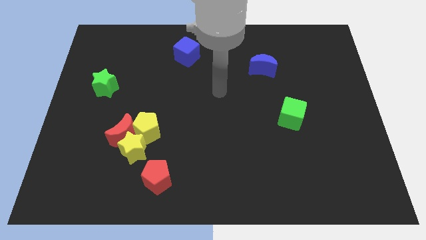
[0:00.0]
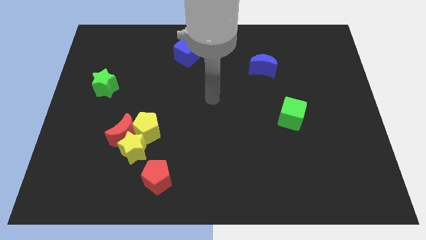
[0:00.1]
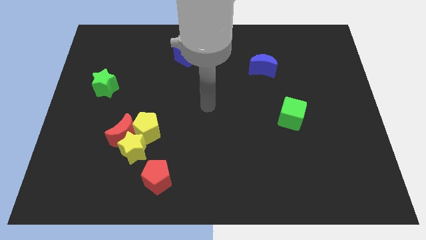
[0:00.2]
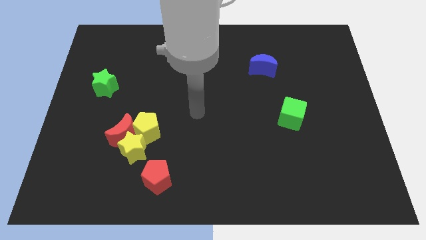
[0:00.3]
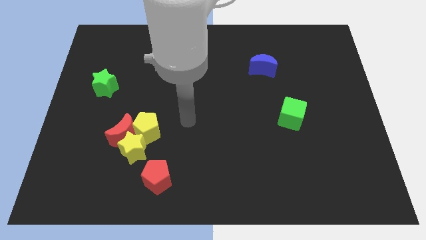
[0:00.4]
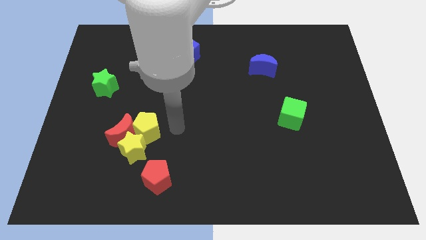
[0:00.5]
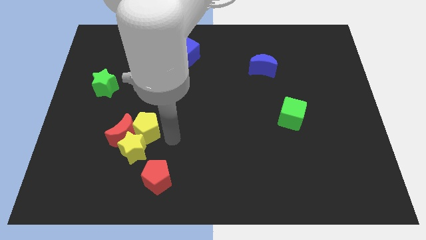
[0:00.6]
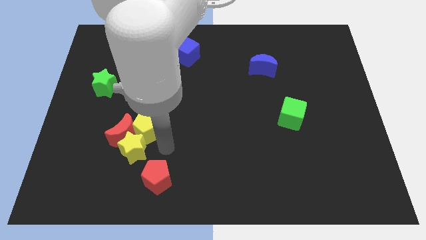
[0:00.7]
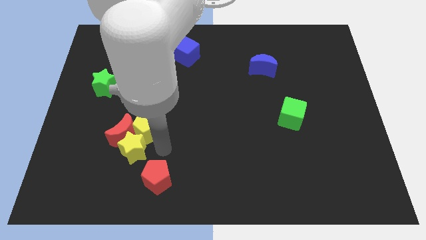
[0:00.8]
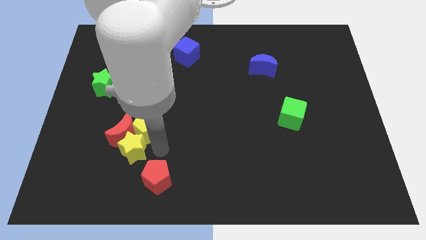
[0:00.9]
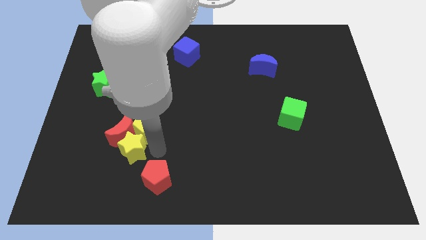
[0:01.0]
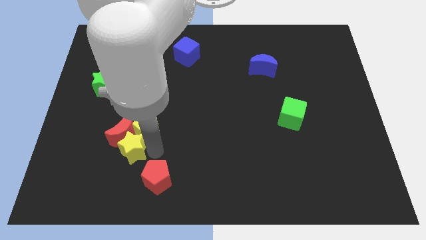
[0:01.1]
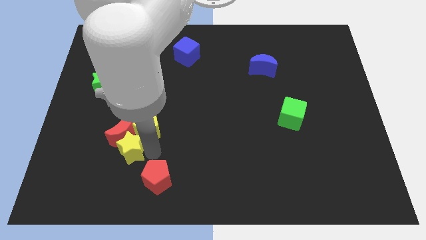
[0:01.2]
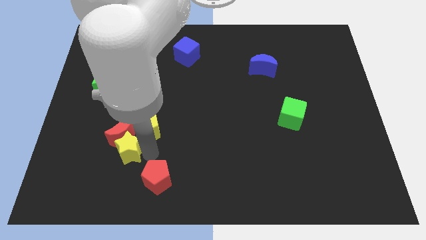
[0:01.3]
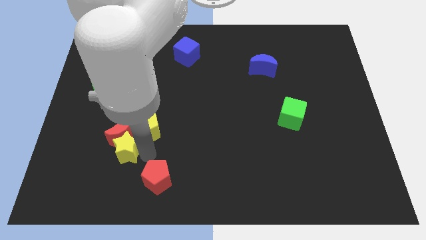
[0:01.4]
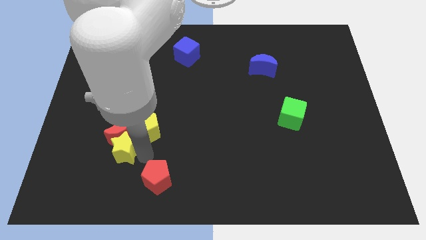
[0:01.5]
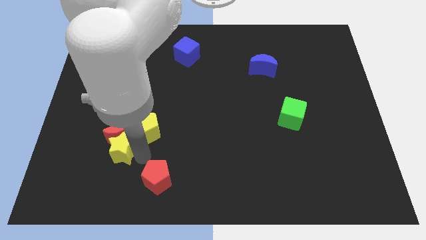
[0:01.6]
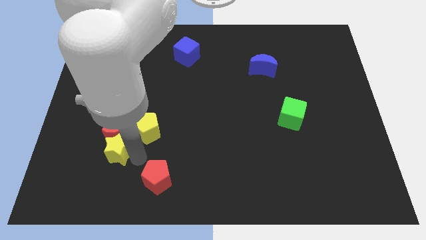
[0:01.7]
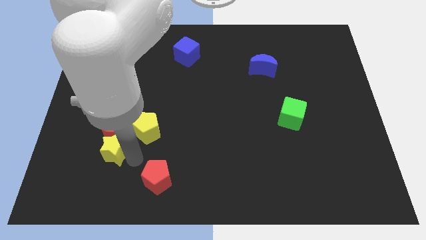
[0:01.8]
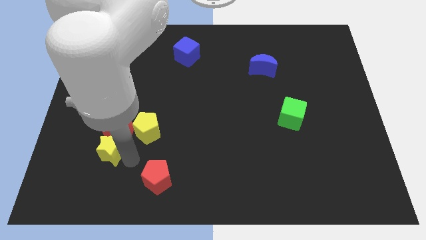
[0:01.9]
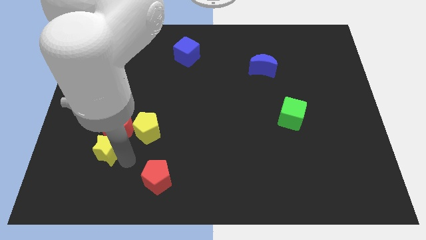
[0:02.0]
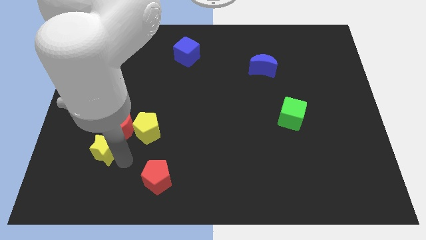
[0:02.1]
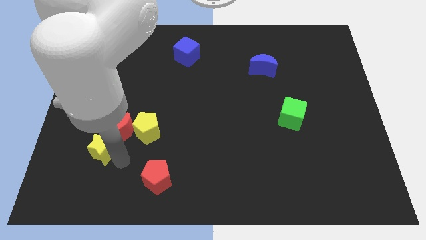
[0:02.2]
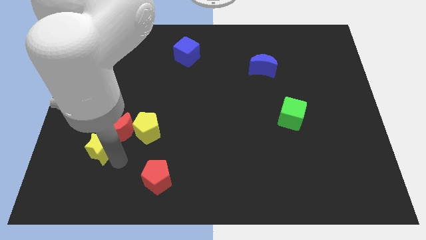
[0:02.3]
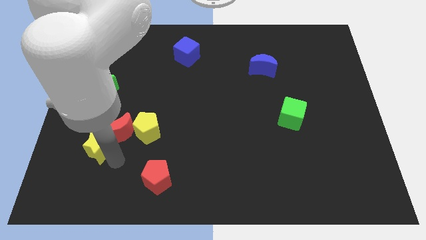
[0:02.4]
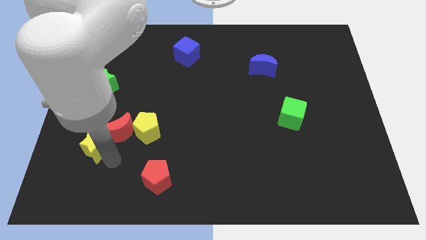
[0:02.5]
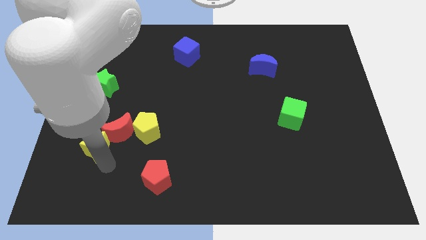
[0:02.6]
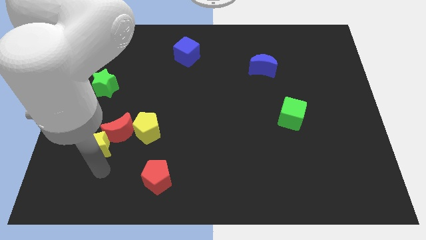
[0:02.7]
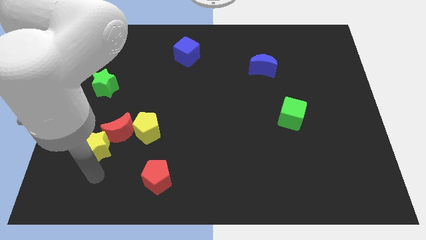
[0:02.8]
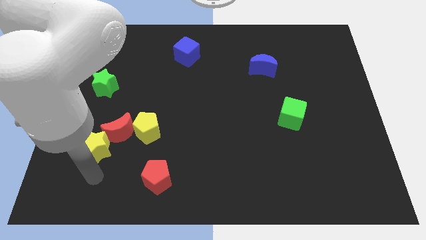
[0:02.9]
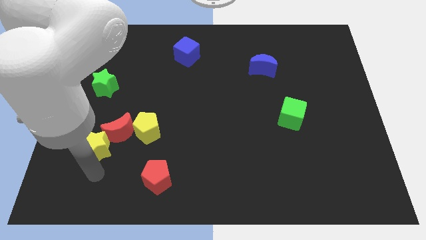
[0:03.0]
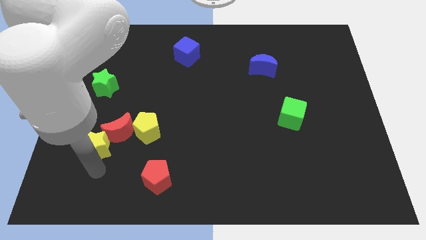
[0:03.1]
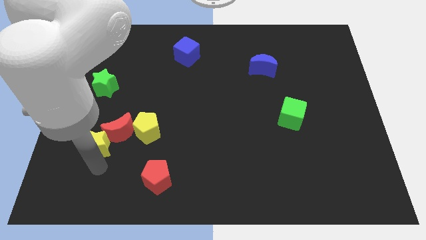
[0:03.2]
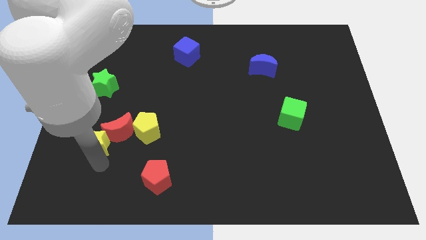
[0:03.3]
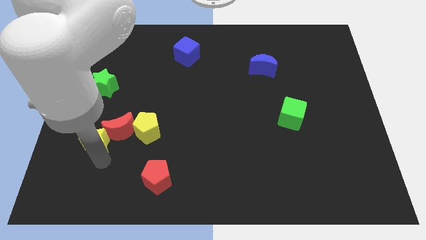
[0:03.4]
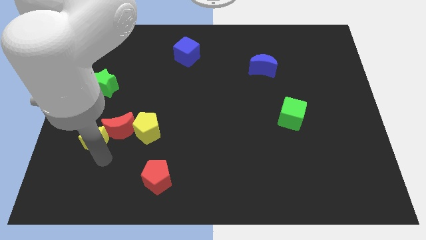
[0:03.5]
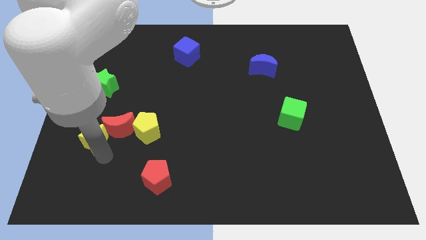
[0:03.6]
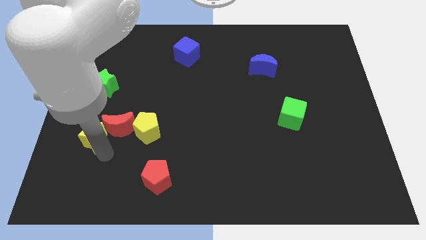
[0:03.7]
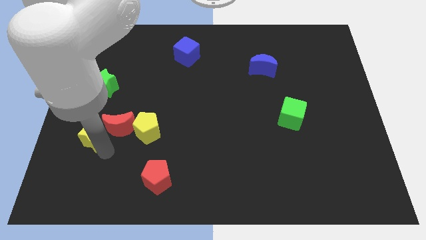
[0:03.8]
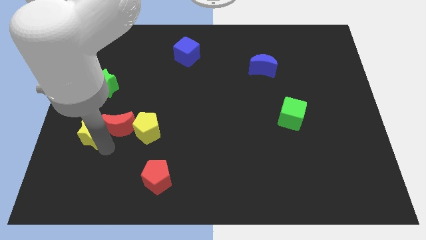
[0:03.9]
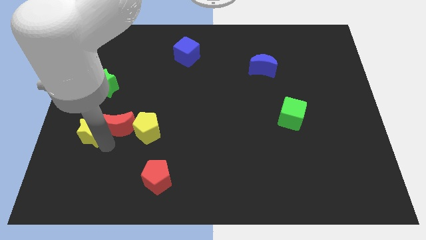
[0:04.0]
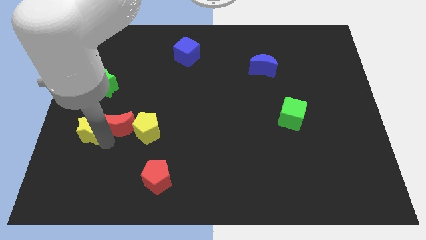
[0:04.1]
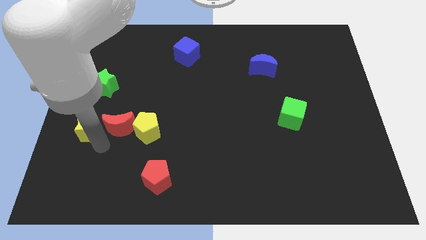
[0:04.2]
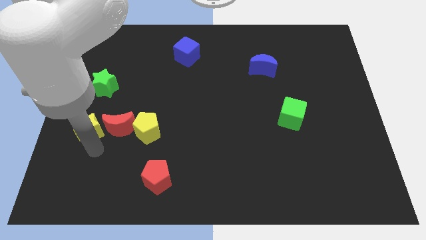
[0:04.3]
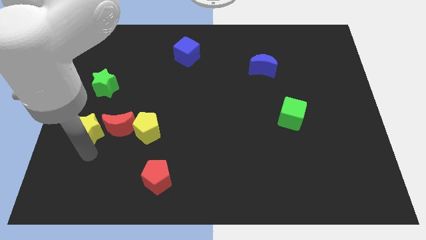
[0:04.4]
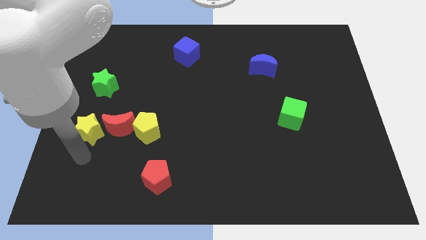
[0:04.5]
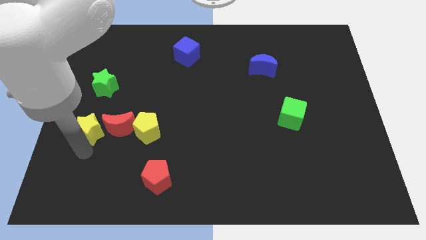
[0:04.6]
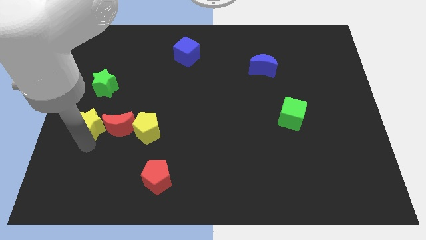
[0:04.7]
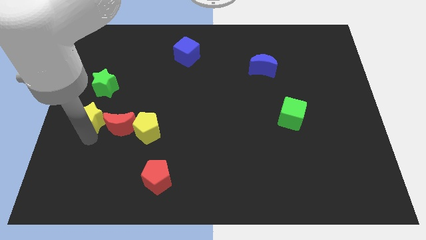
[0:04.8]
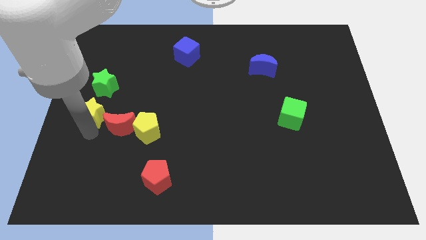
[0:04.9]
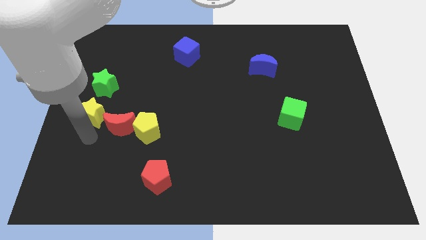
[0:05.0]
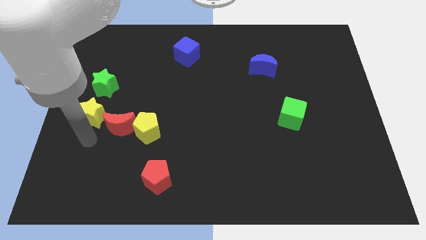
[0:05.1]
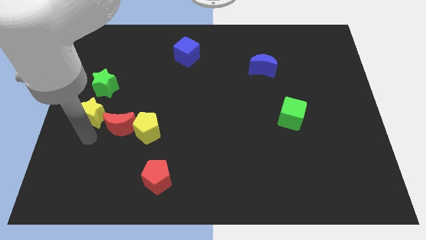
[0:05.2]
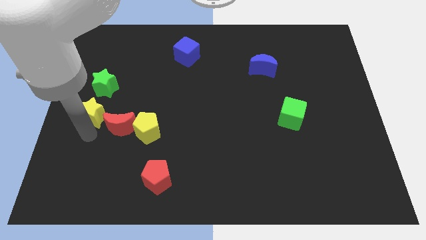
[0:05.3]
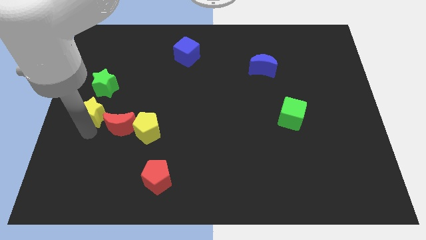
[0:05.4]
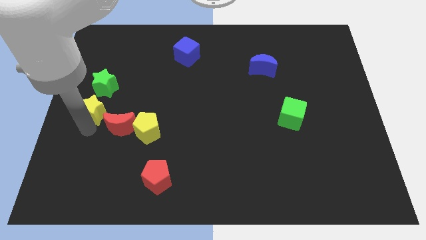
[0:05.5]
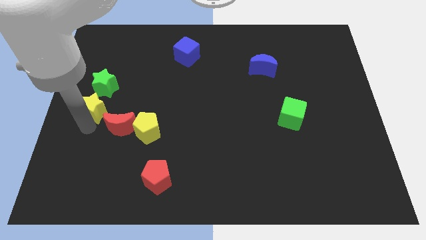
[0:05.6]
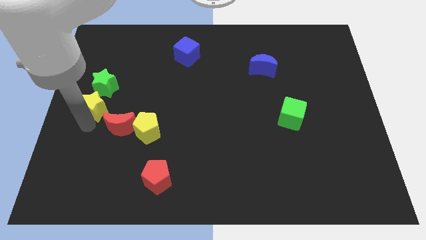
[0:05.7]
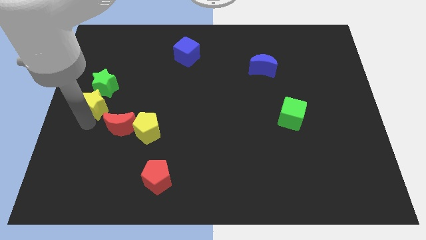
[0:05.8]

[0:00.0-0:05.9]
slide the yellow star next to the green star

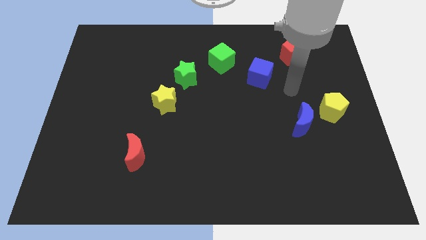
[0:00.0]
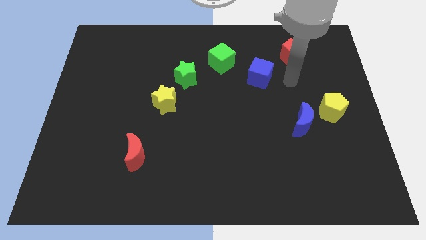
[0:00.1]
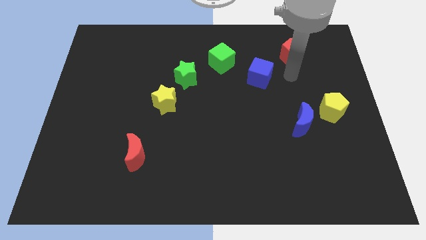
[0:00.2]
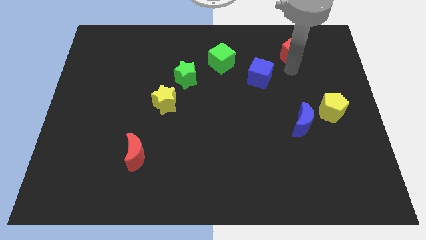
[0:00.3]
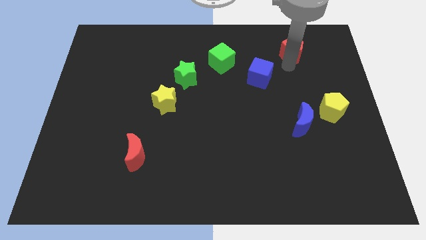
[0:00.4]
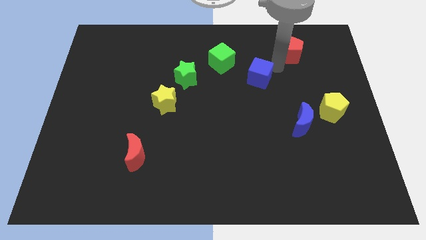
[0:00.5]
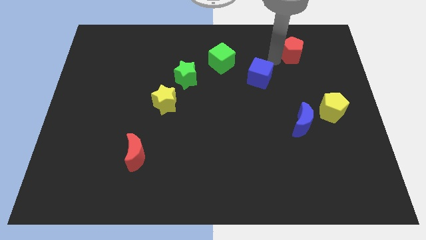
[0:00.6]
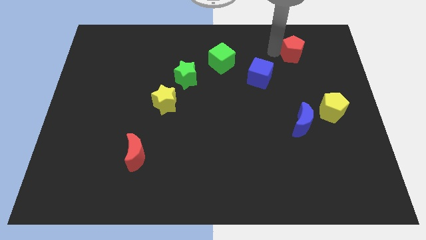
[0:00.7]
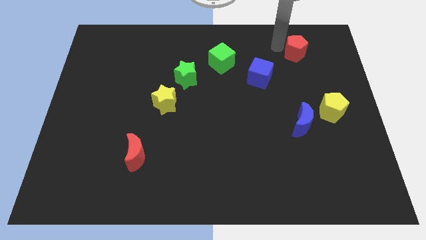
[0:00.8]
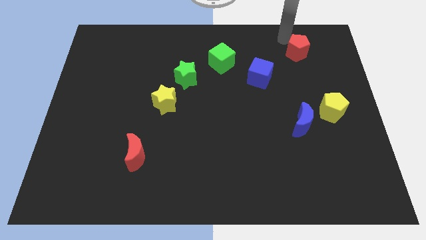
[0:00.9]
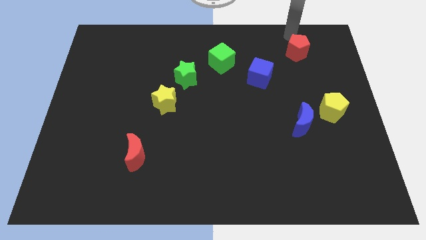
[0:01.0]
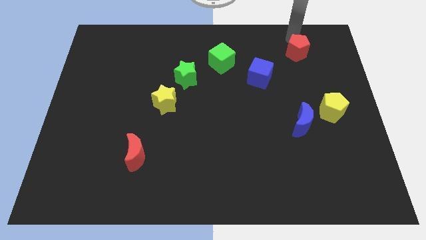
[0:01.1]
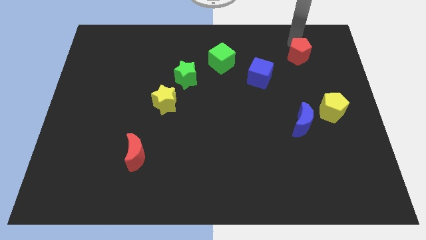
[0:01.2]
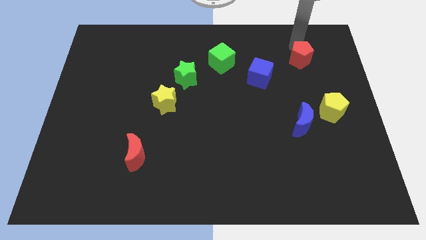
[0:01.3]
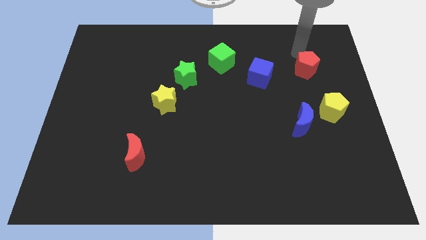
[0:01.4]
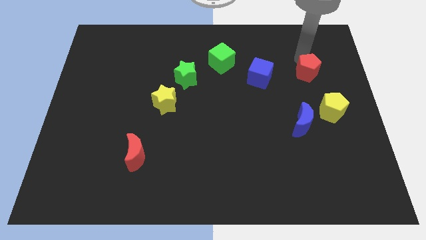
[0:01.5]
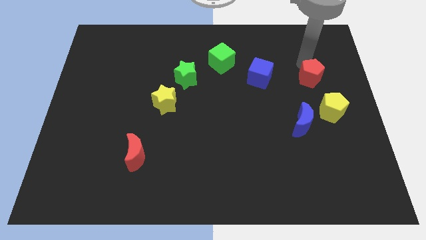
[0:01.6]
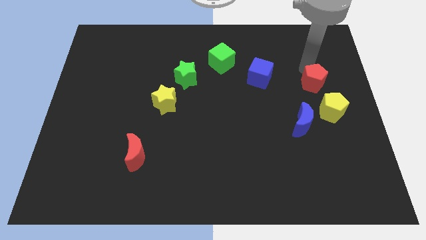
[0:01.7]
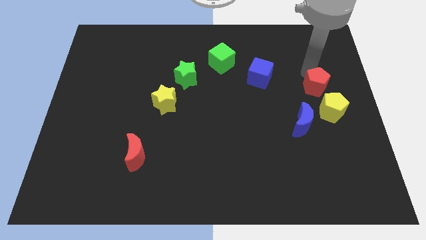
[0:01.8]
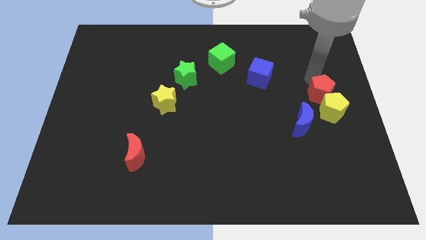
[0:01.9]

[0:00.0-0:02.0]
put the red pentagon next to the yellow pentagon
